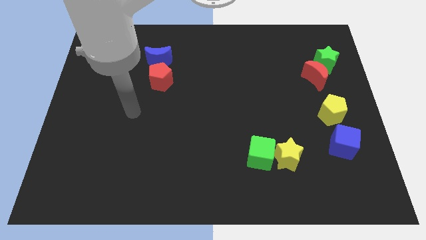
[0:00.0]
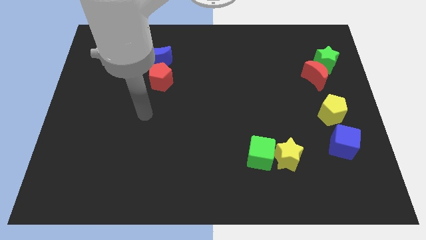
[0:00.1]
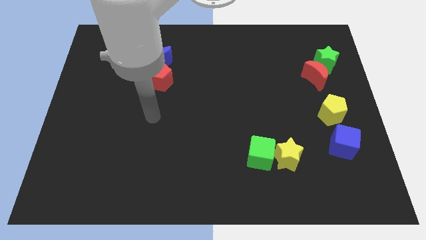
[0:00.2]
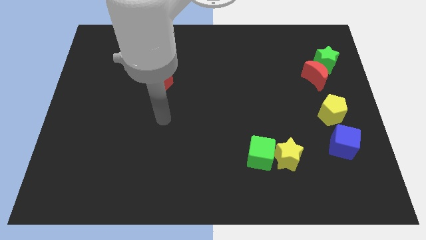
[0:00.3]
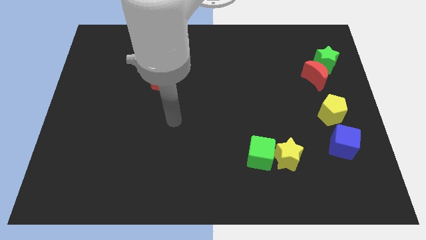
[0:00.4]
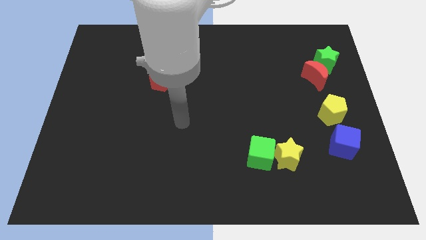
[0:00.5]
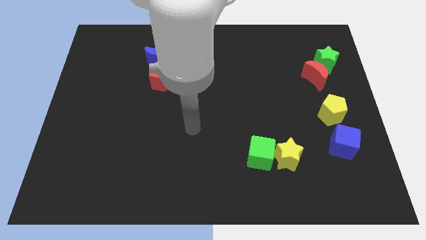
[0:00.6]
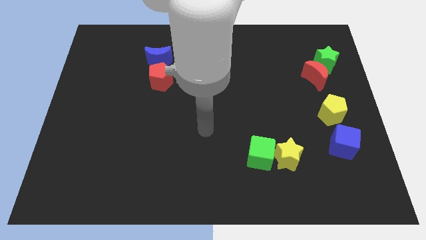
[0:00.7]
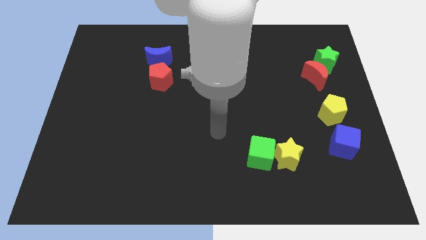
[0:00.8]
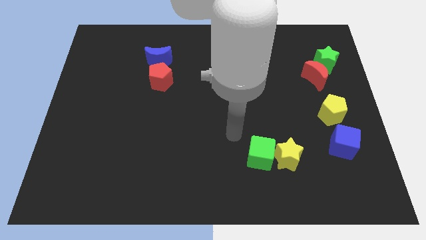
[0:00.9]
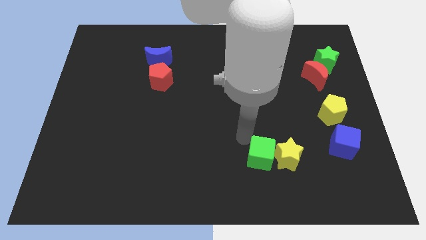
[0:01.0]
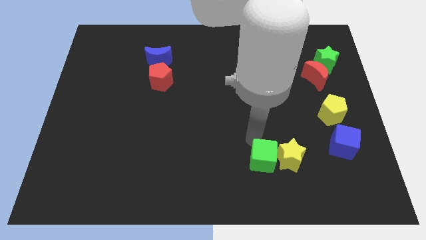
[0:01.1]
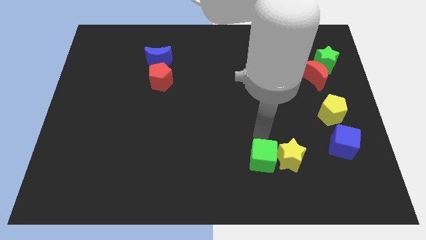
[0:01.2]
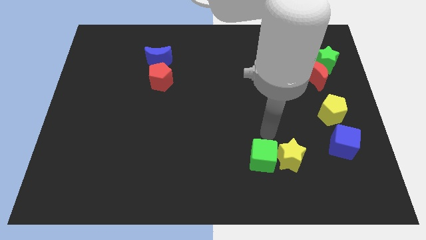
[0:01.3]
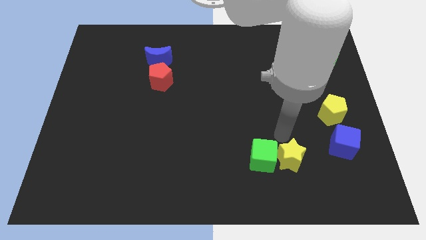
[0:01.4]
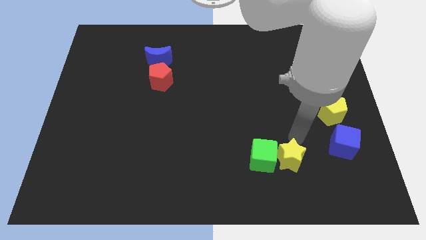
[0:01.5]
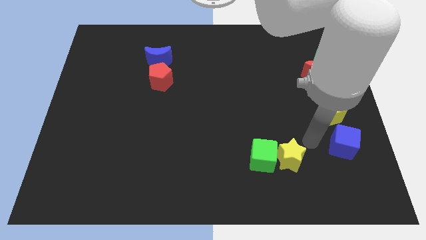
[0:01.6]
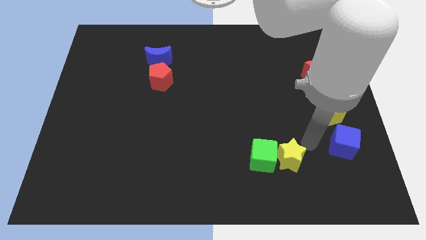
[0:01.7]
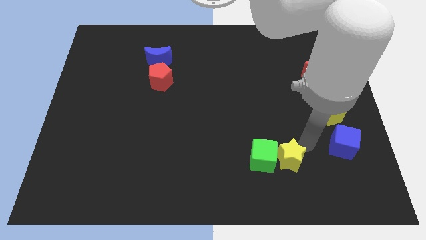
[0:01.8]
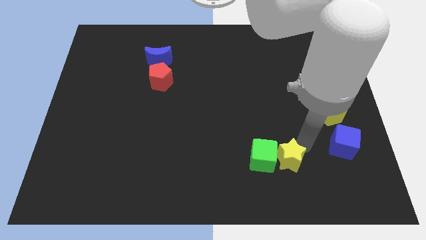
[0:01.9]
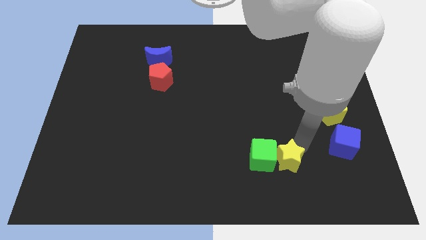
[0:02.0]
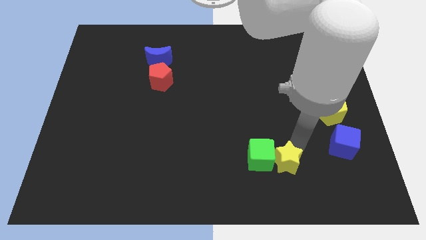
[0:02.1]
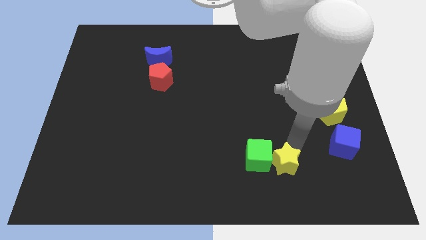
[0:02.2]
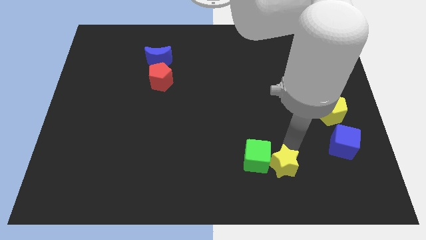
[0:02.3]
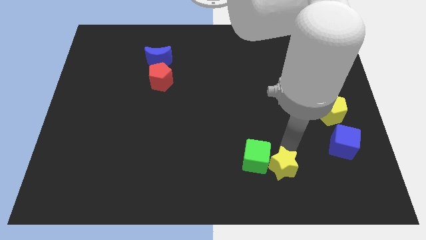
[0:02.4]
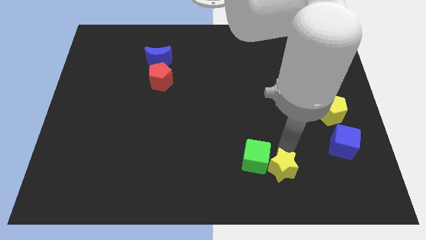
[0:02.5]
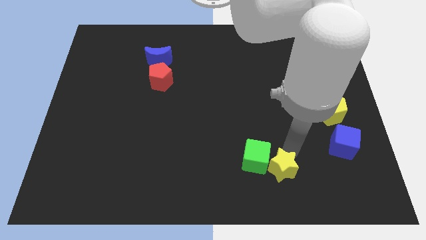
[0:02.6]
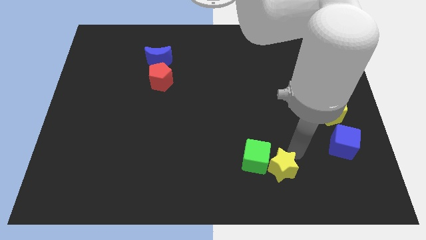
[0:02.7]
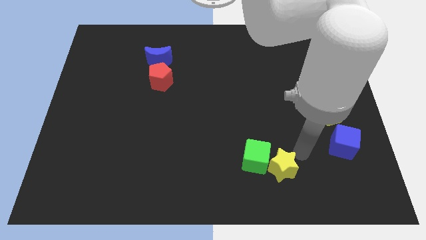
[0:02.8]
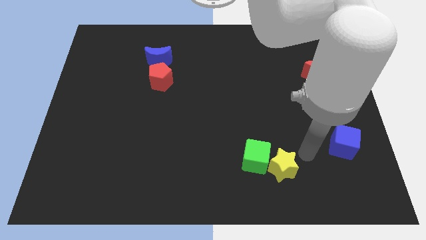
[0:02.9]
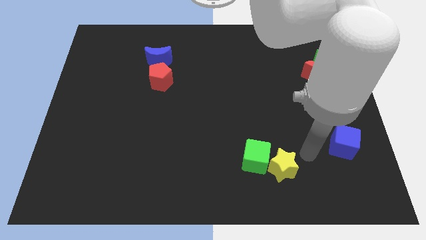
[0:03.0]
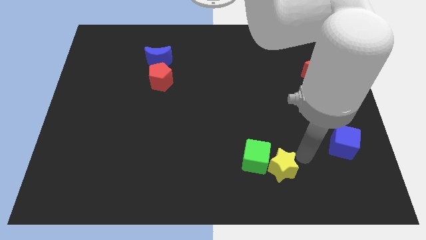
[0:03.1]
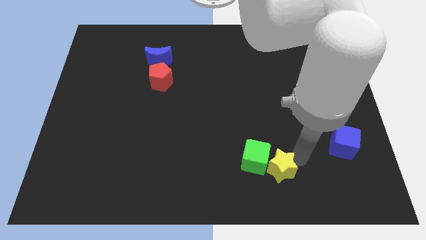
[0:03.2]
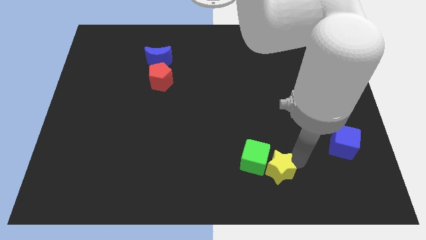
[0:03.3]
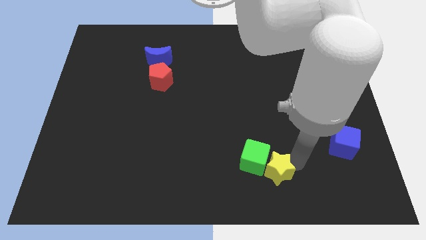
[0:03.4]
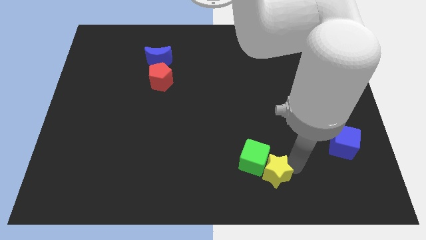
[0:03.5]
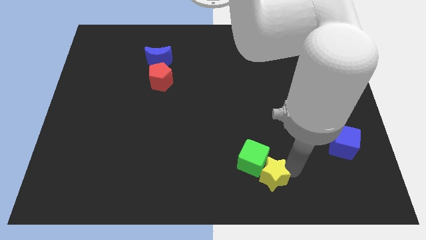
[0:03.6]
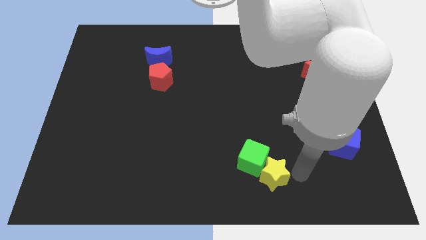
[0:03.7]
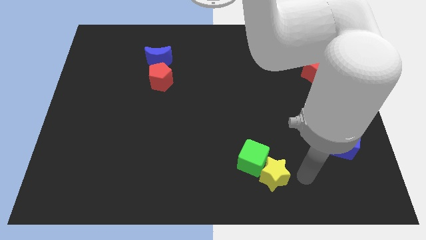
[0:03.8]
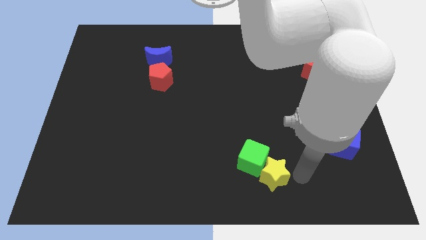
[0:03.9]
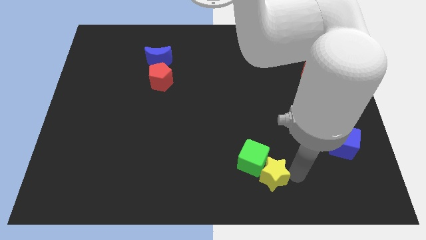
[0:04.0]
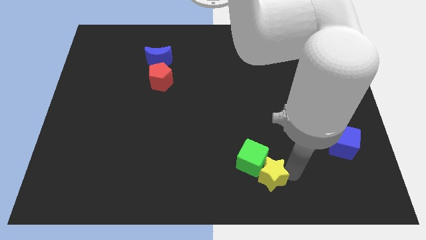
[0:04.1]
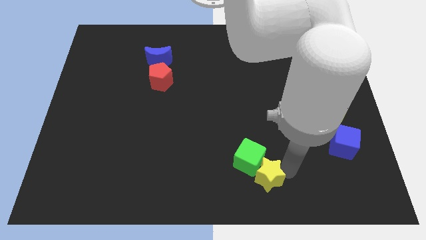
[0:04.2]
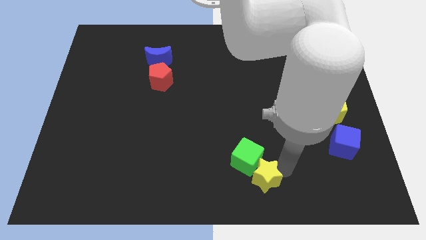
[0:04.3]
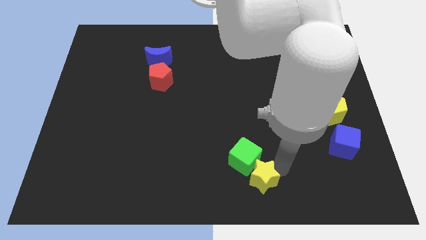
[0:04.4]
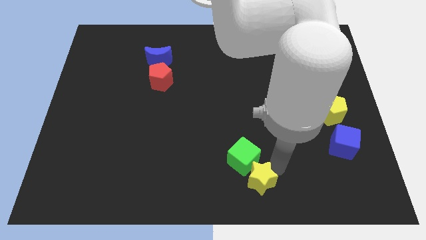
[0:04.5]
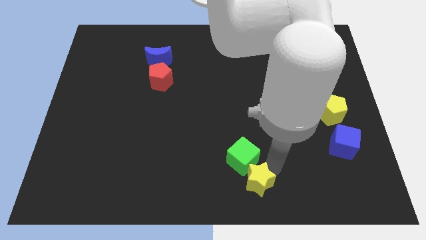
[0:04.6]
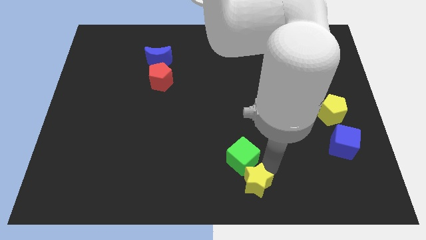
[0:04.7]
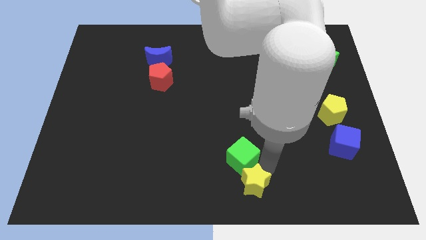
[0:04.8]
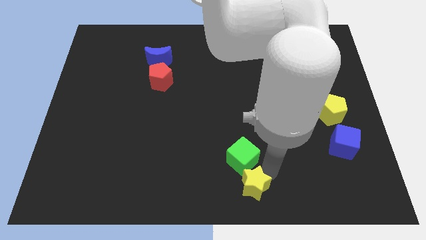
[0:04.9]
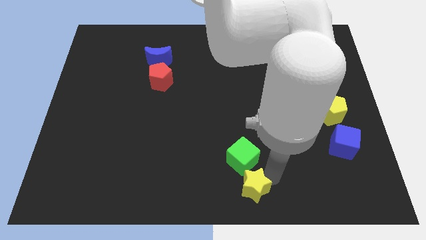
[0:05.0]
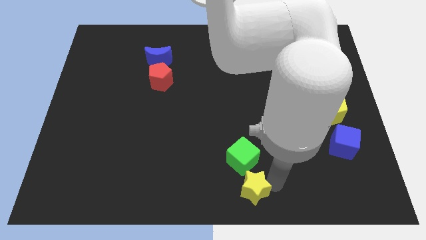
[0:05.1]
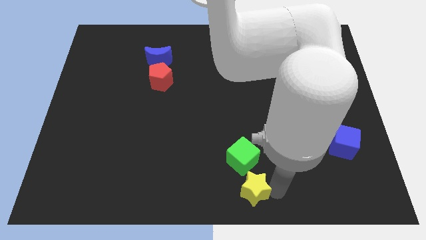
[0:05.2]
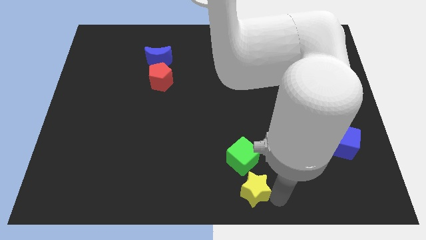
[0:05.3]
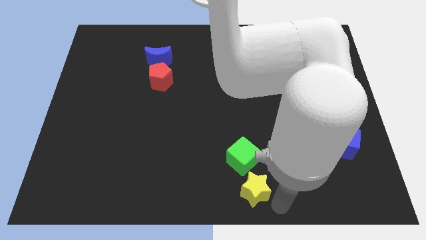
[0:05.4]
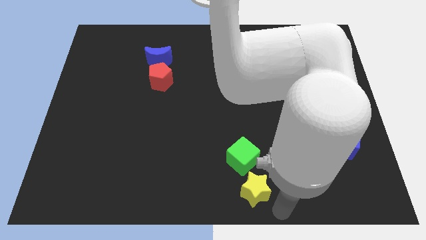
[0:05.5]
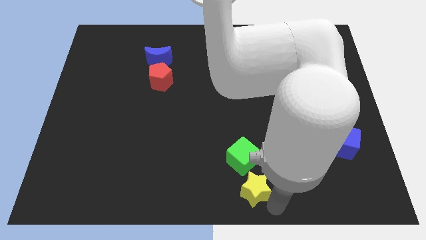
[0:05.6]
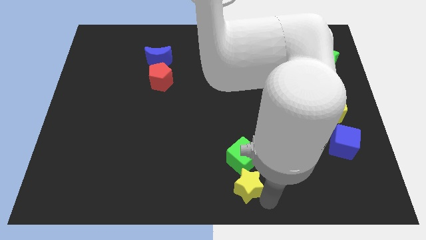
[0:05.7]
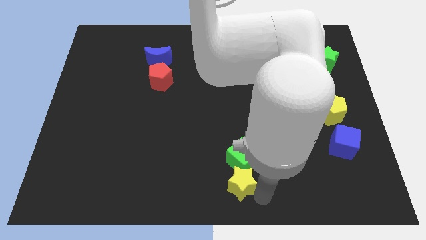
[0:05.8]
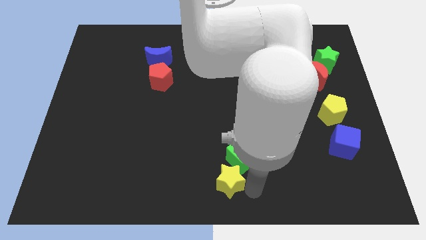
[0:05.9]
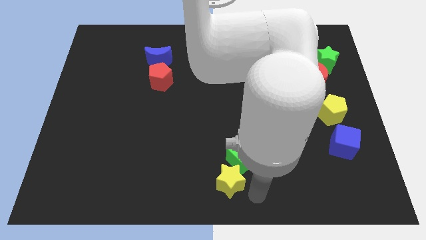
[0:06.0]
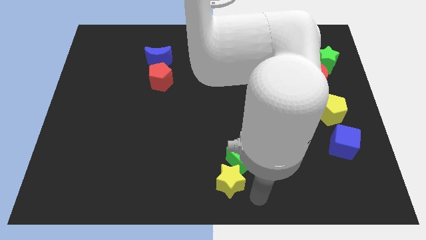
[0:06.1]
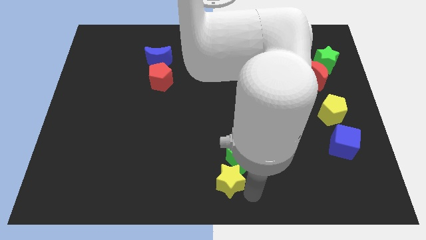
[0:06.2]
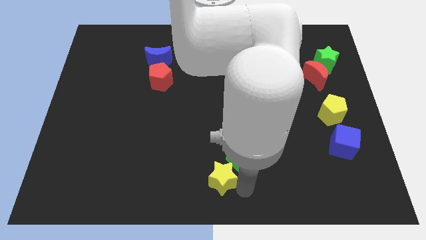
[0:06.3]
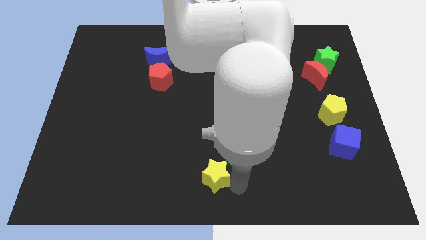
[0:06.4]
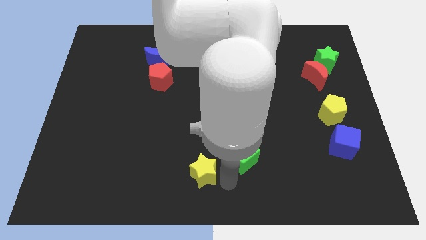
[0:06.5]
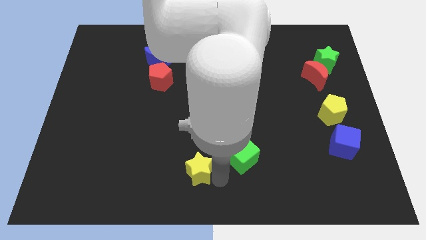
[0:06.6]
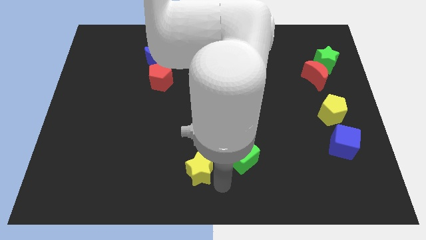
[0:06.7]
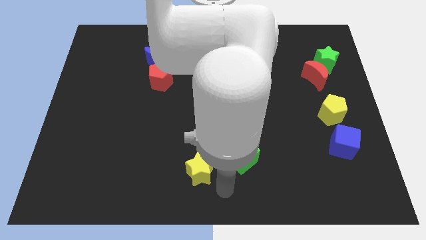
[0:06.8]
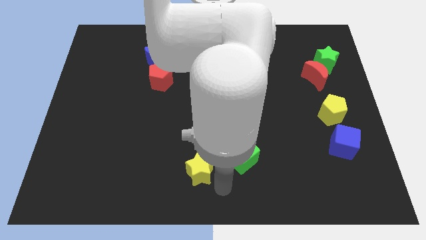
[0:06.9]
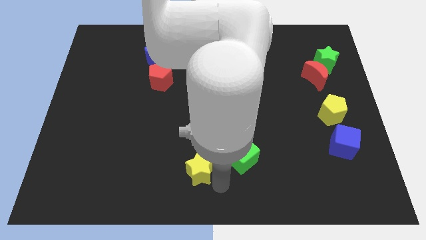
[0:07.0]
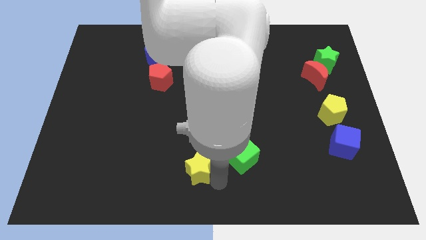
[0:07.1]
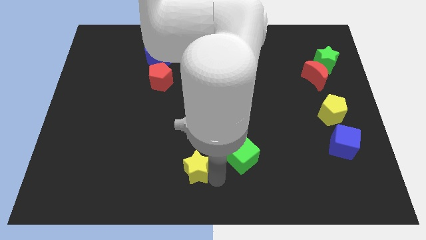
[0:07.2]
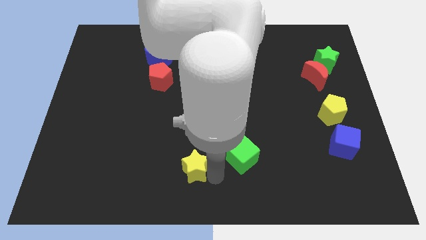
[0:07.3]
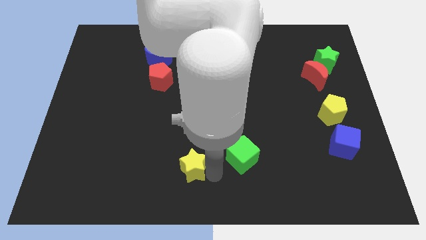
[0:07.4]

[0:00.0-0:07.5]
move the yellow star to the left

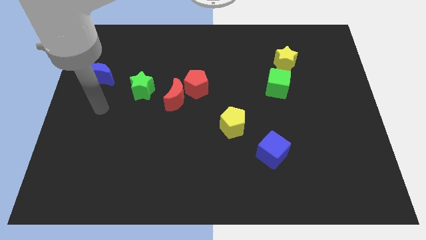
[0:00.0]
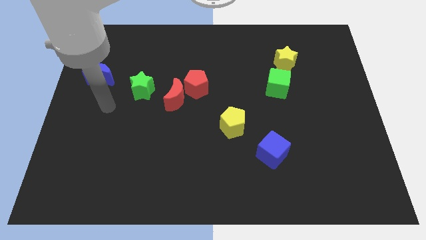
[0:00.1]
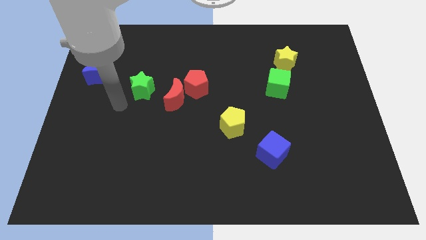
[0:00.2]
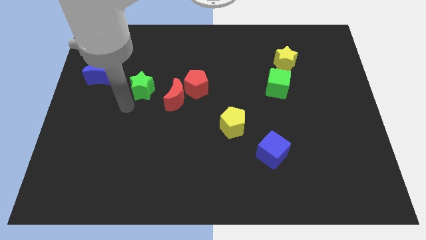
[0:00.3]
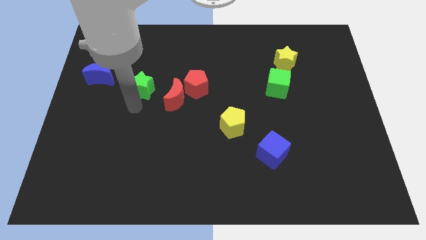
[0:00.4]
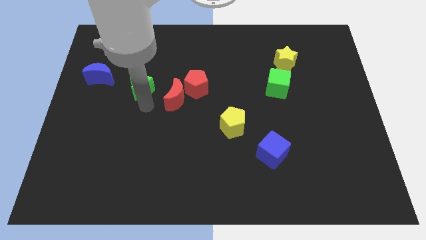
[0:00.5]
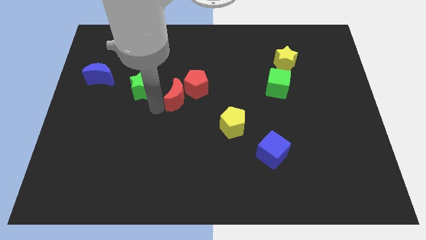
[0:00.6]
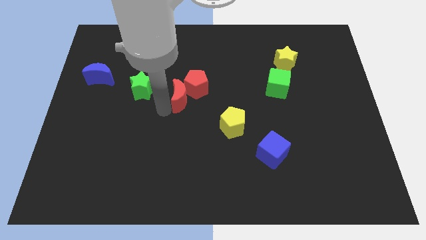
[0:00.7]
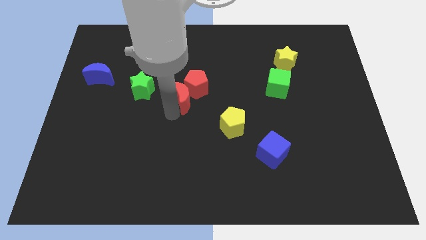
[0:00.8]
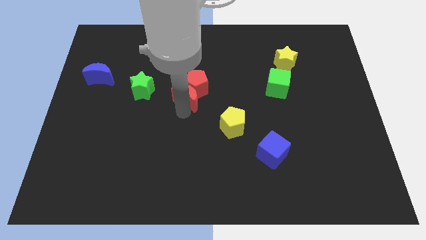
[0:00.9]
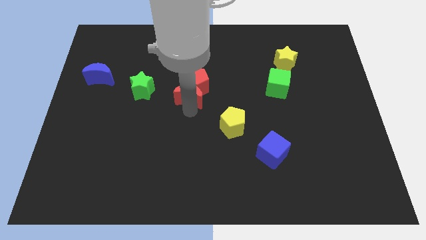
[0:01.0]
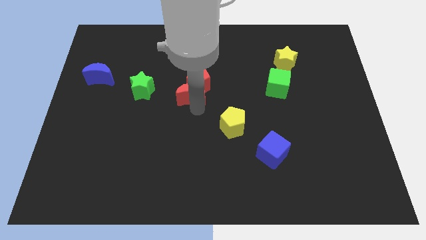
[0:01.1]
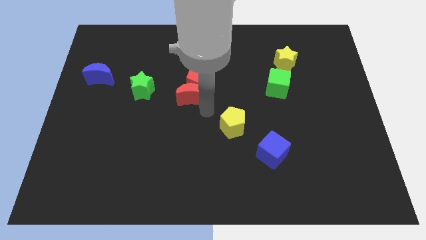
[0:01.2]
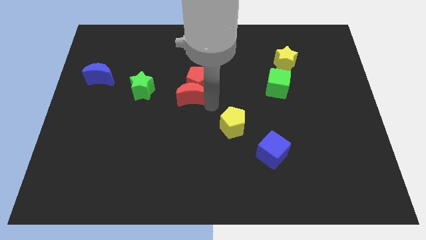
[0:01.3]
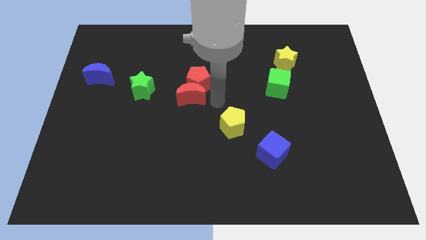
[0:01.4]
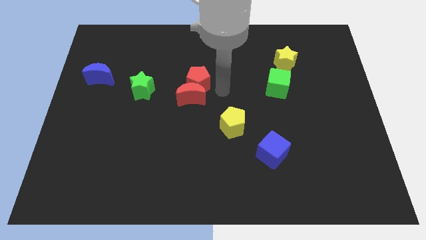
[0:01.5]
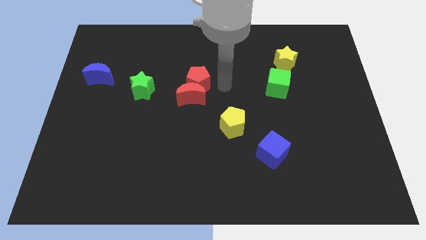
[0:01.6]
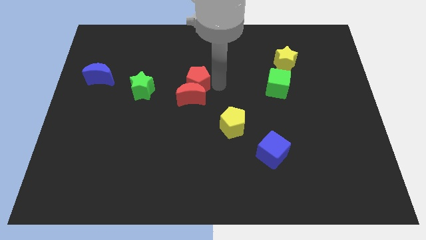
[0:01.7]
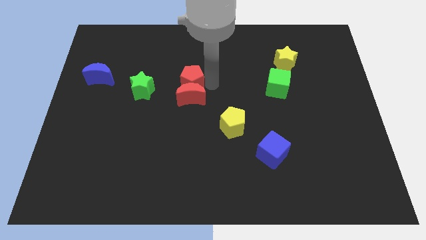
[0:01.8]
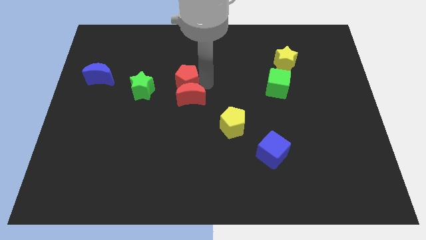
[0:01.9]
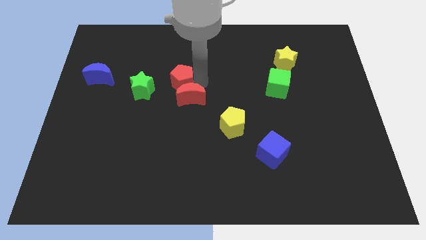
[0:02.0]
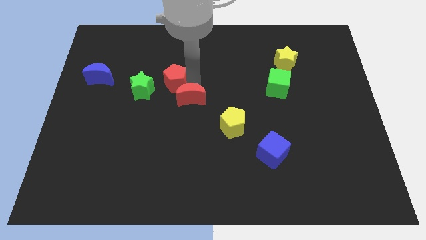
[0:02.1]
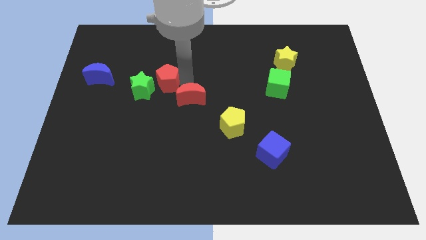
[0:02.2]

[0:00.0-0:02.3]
slightly move the red pentagon left
